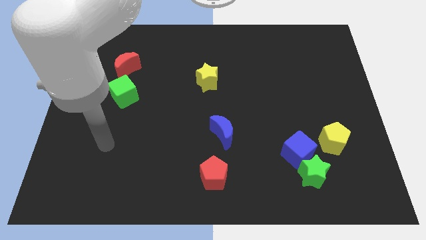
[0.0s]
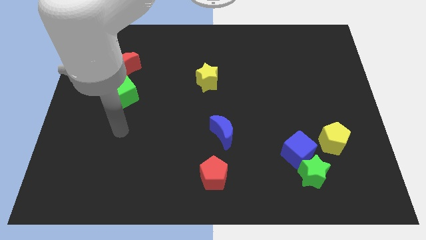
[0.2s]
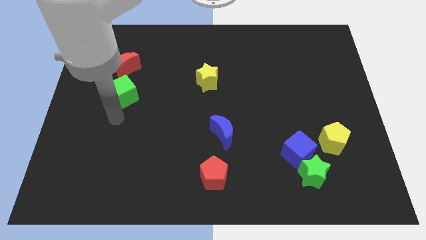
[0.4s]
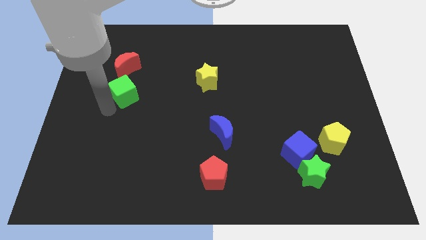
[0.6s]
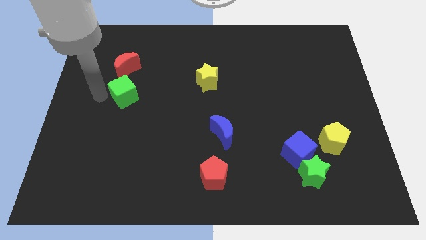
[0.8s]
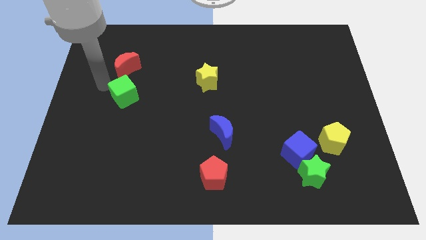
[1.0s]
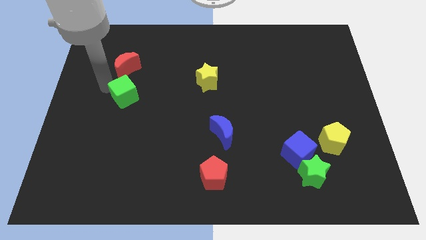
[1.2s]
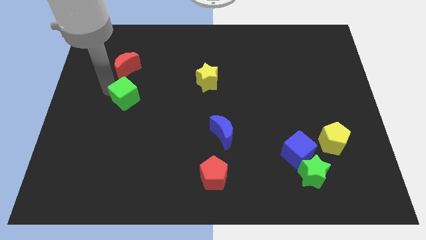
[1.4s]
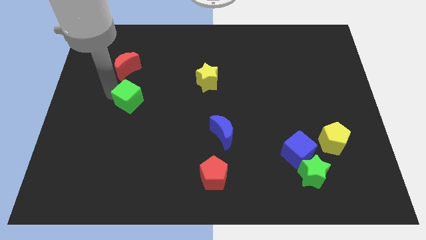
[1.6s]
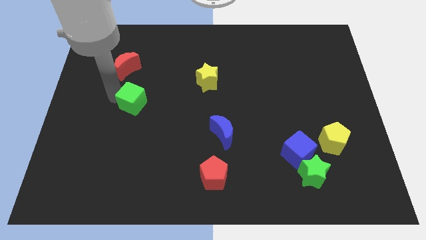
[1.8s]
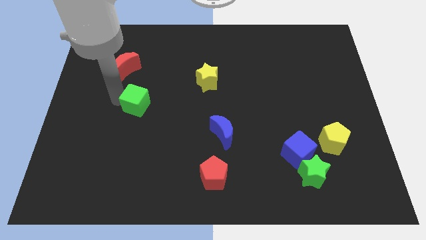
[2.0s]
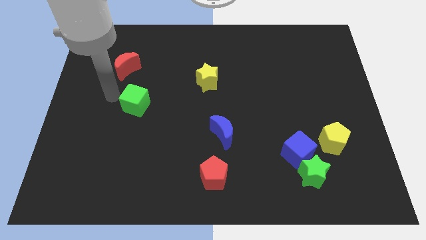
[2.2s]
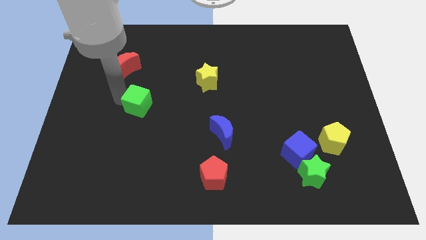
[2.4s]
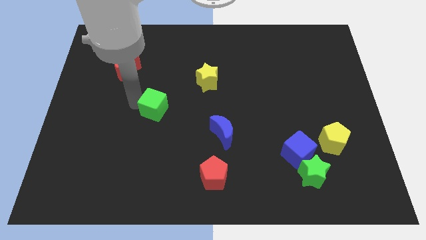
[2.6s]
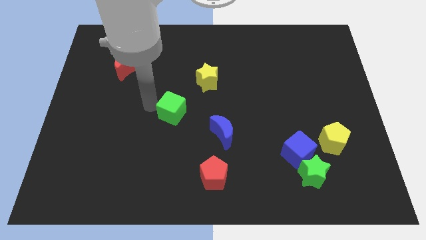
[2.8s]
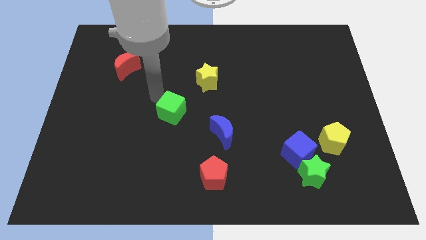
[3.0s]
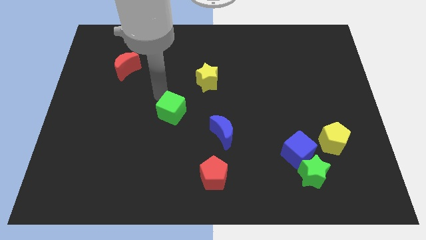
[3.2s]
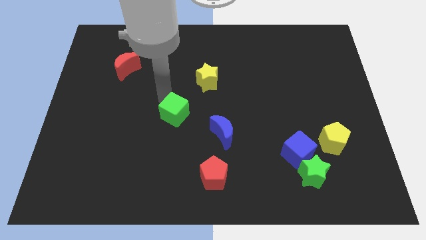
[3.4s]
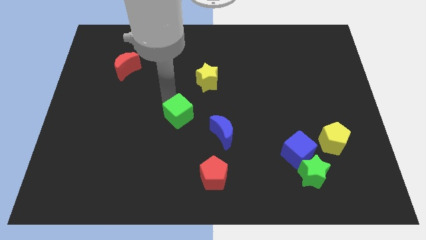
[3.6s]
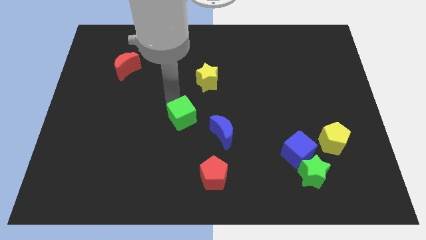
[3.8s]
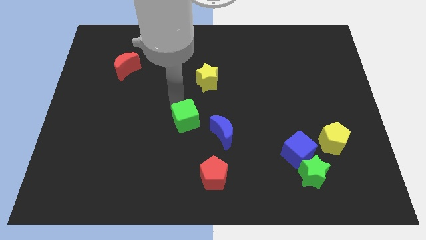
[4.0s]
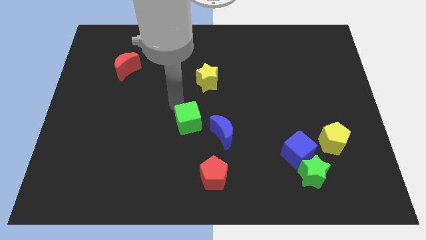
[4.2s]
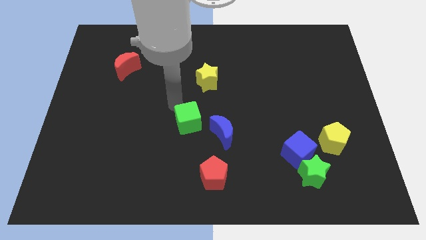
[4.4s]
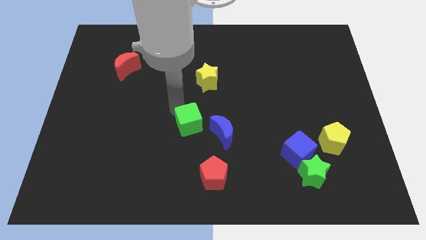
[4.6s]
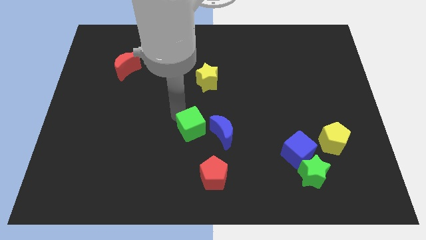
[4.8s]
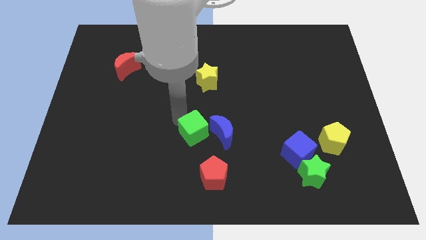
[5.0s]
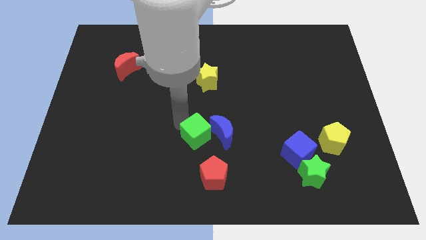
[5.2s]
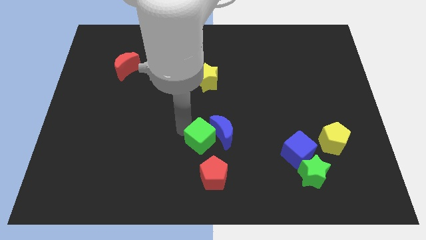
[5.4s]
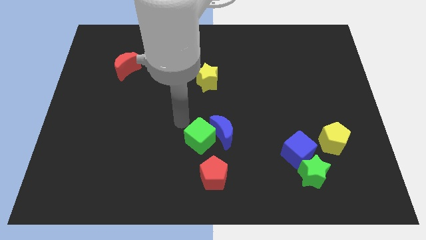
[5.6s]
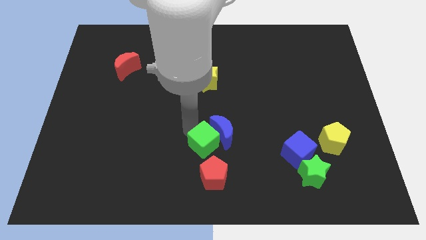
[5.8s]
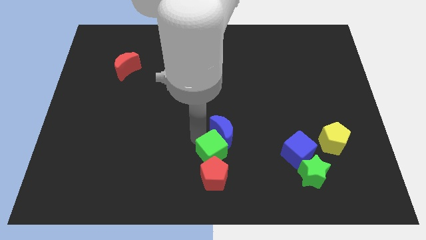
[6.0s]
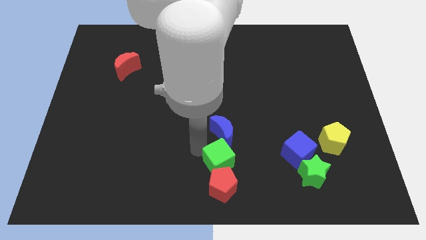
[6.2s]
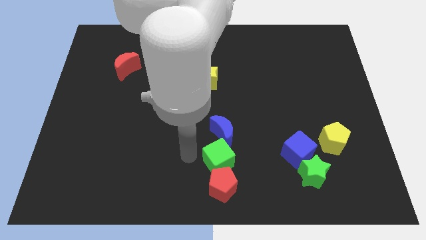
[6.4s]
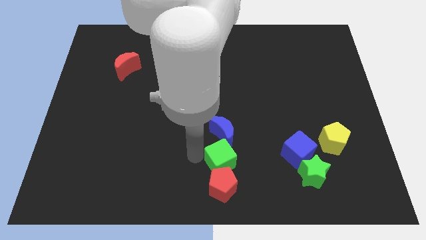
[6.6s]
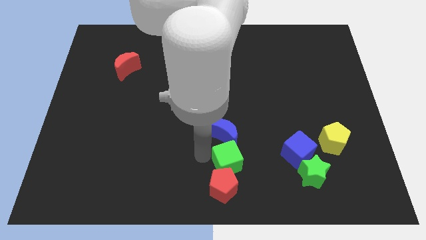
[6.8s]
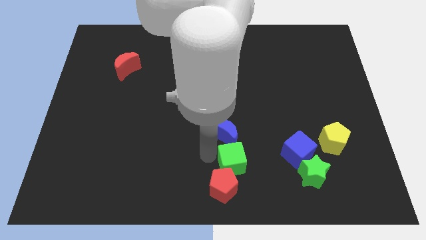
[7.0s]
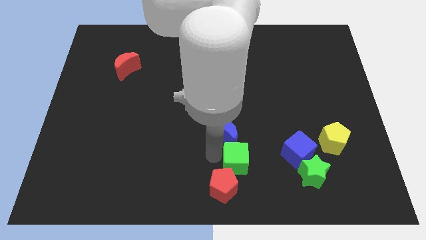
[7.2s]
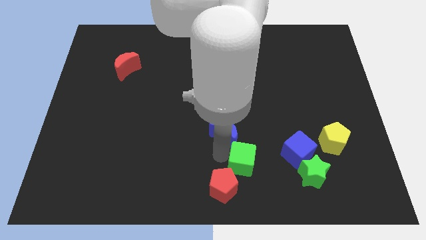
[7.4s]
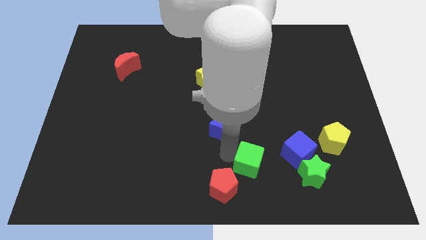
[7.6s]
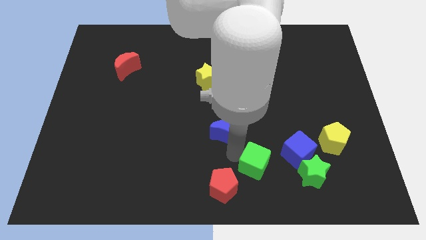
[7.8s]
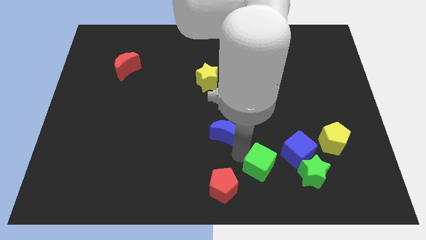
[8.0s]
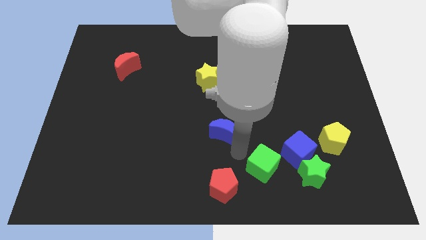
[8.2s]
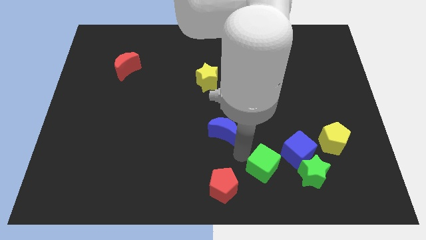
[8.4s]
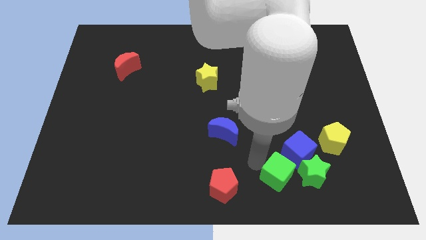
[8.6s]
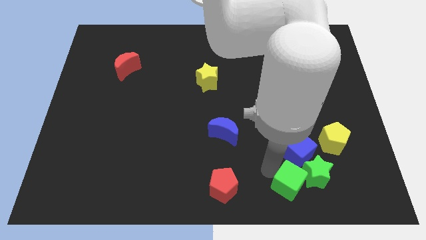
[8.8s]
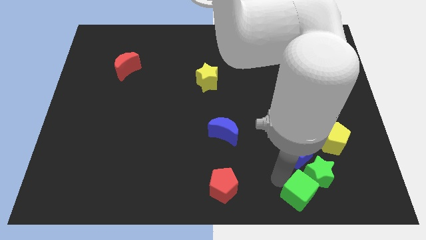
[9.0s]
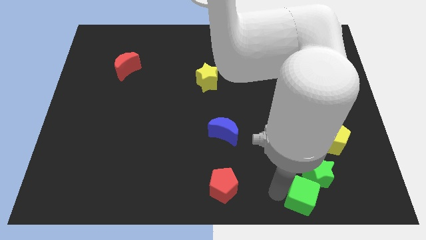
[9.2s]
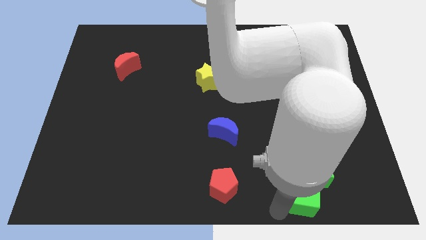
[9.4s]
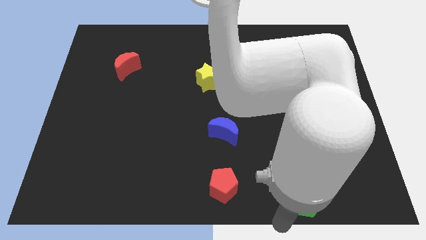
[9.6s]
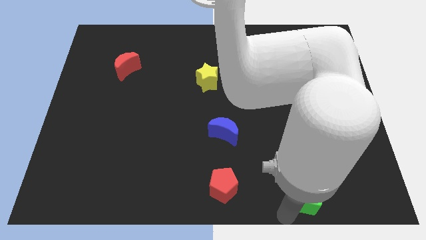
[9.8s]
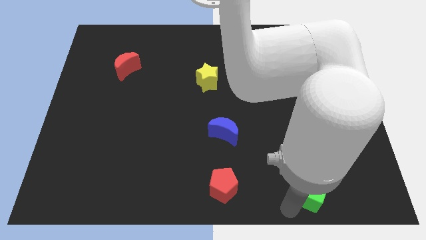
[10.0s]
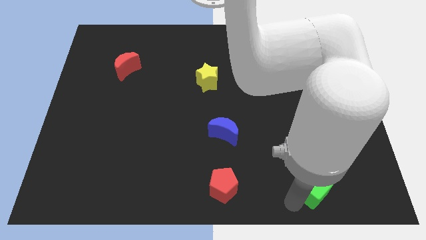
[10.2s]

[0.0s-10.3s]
put the green cube to the bottom right of the blue cube

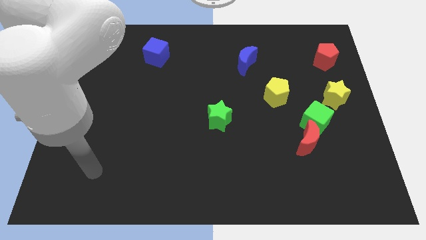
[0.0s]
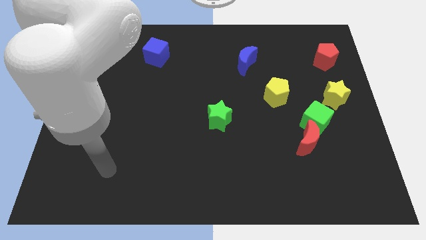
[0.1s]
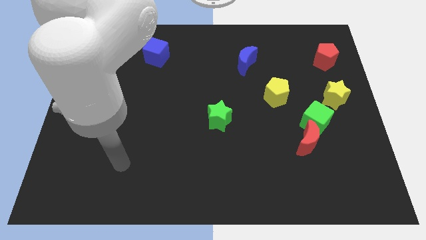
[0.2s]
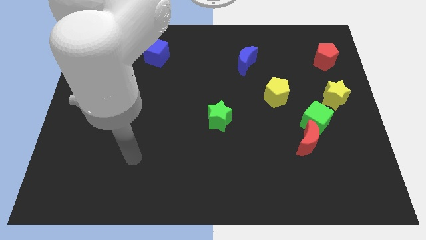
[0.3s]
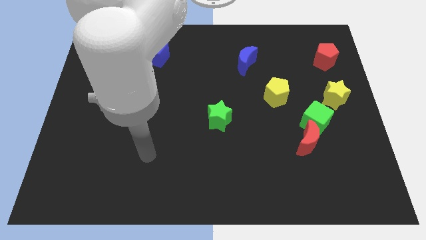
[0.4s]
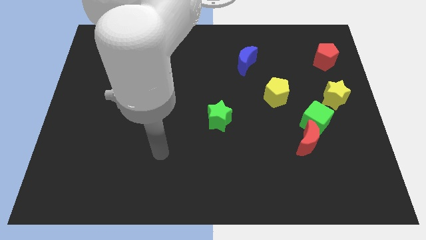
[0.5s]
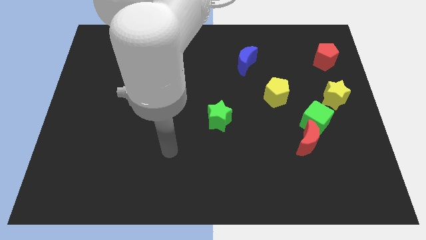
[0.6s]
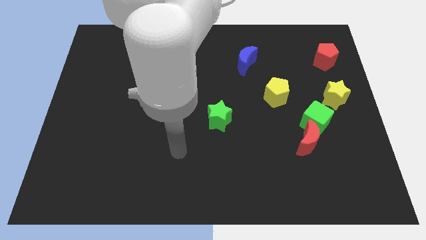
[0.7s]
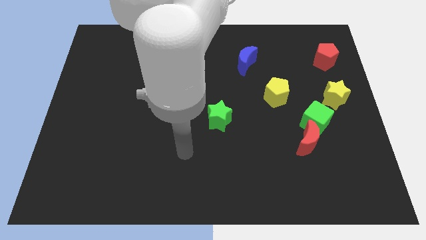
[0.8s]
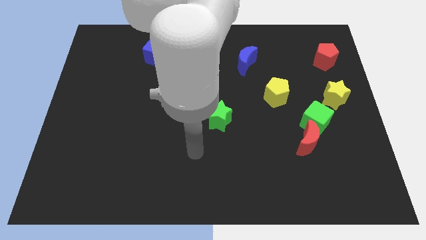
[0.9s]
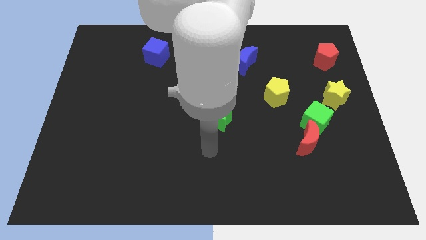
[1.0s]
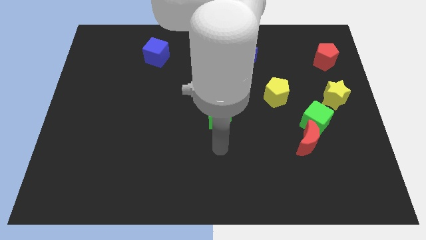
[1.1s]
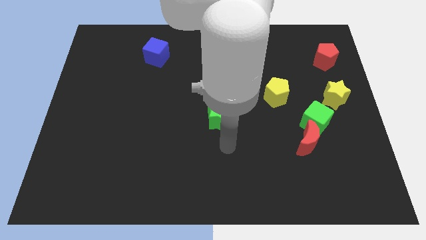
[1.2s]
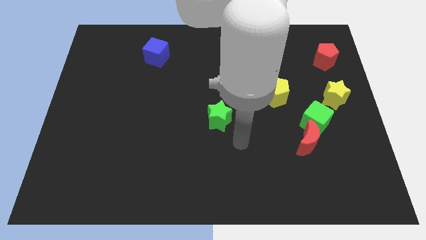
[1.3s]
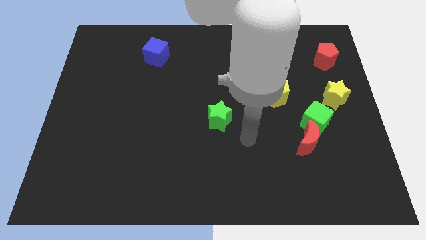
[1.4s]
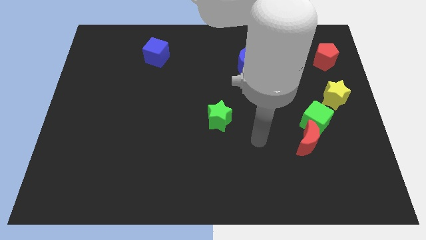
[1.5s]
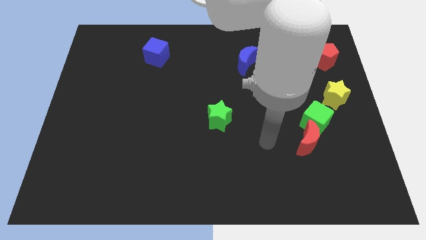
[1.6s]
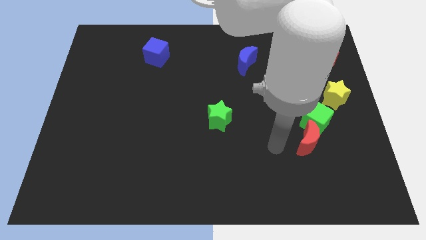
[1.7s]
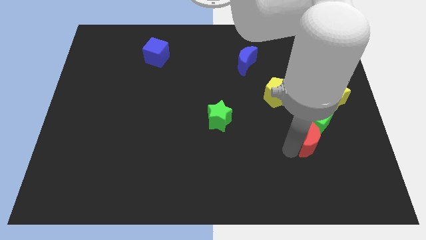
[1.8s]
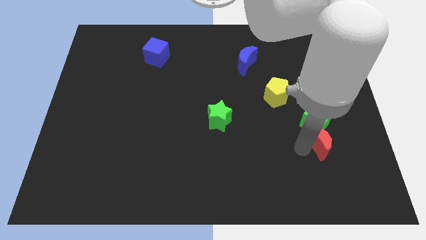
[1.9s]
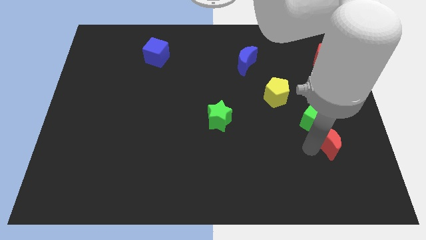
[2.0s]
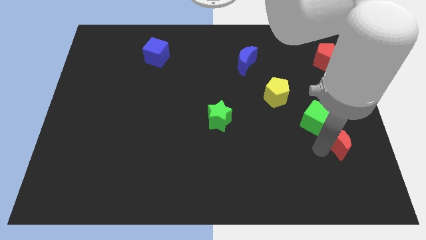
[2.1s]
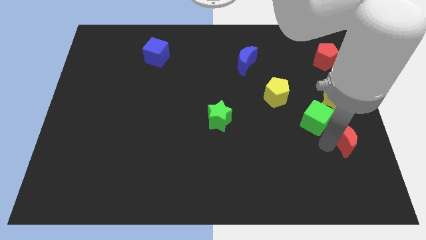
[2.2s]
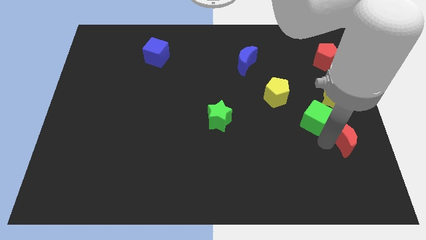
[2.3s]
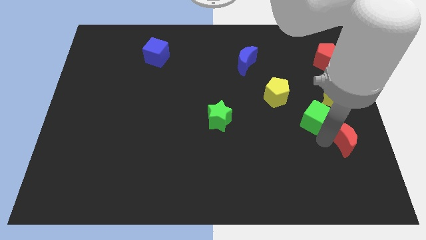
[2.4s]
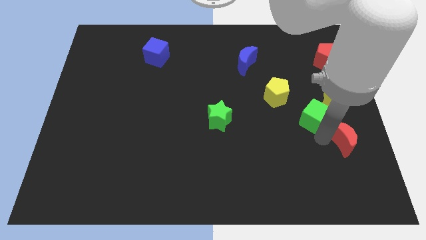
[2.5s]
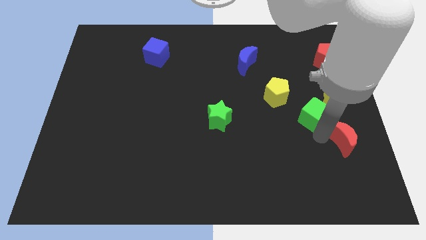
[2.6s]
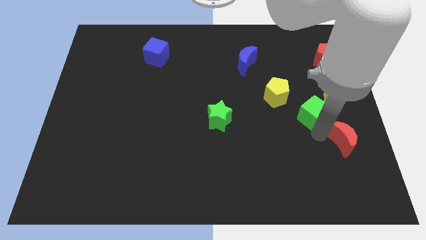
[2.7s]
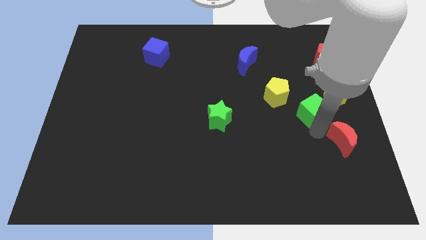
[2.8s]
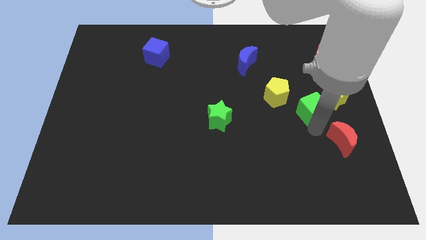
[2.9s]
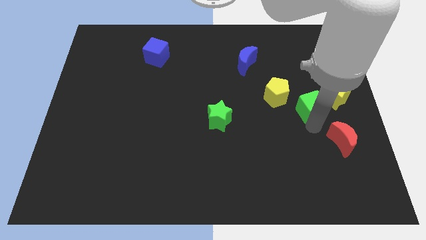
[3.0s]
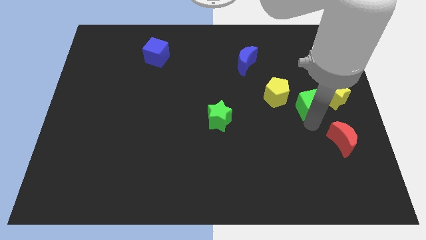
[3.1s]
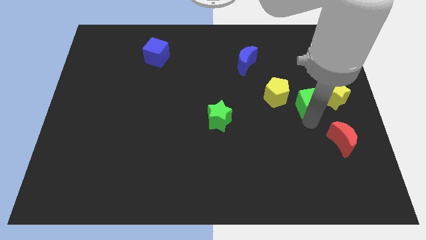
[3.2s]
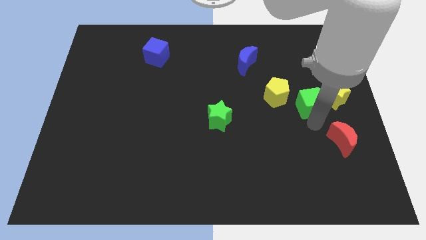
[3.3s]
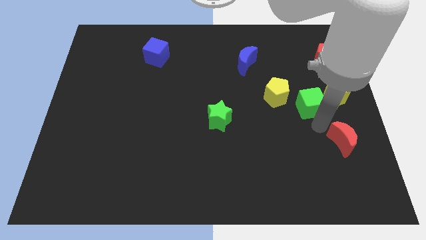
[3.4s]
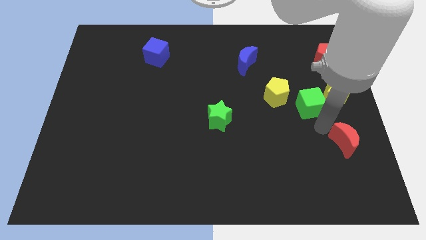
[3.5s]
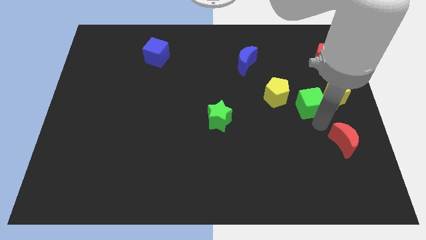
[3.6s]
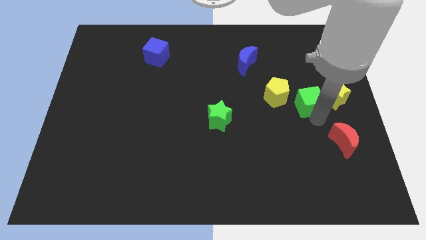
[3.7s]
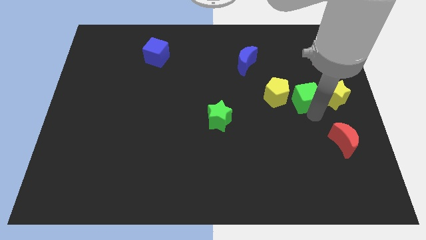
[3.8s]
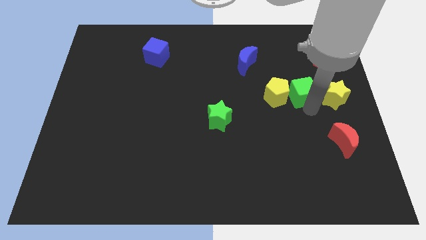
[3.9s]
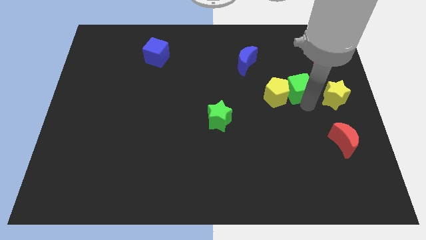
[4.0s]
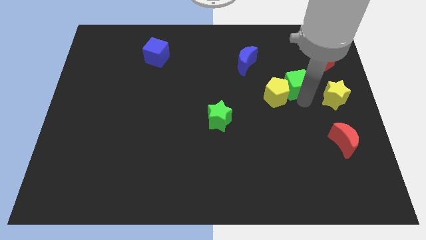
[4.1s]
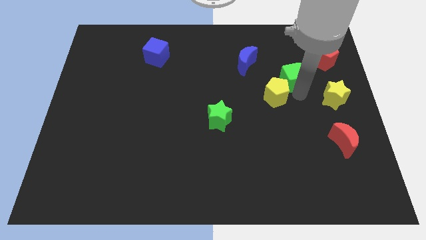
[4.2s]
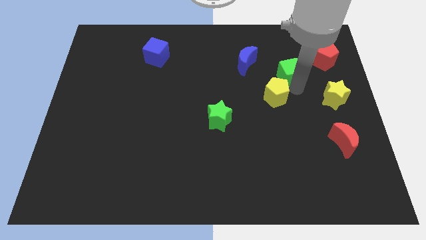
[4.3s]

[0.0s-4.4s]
slide the green cube to the right of the blue moon
